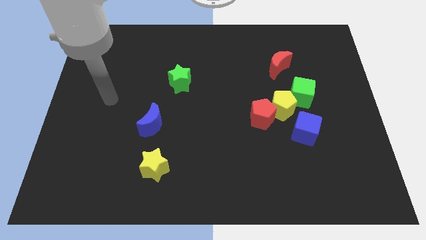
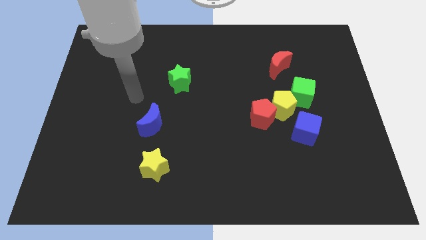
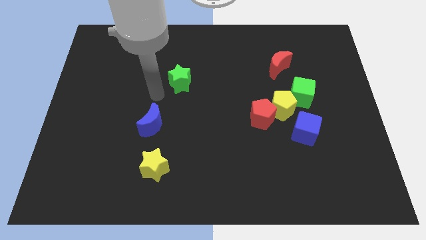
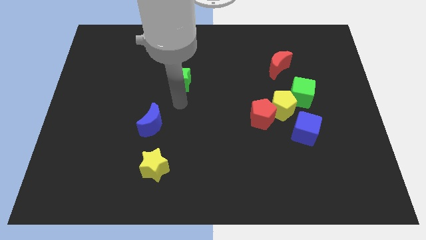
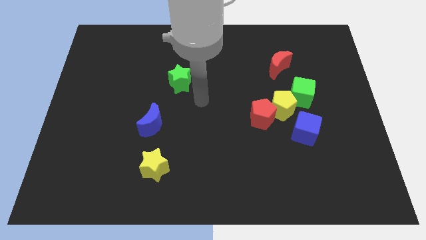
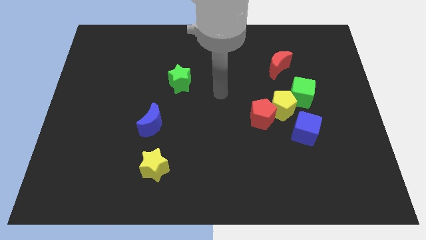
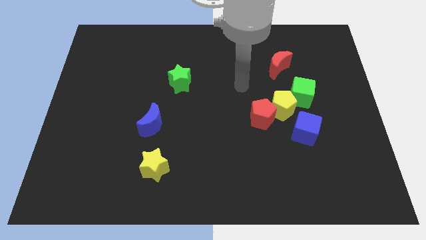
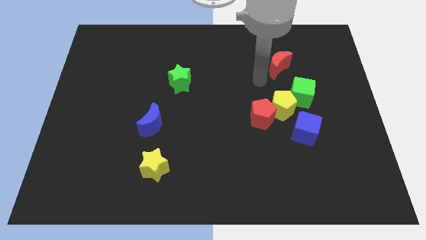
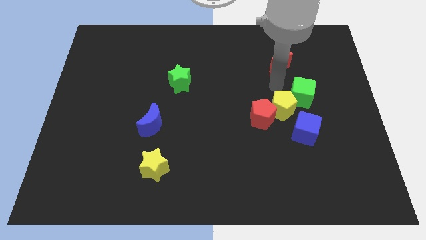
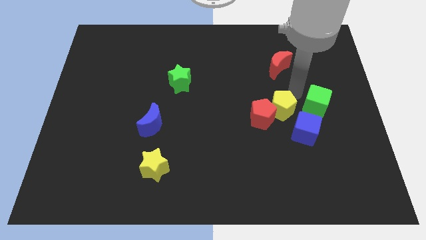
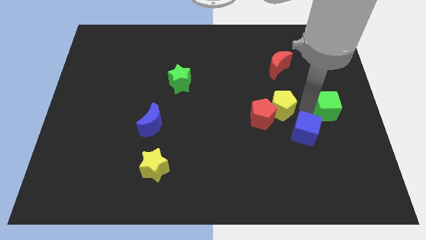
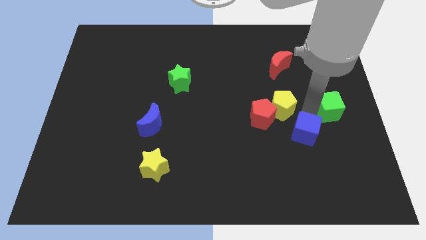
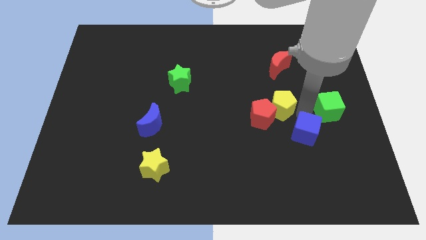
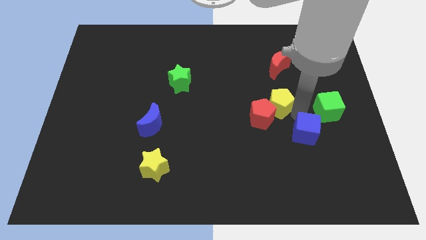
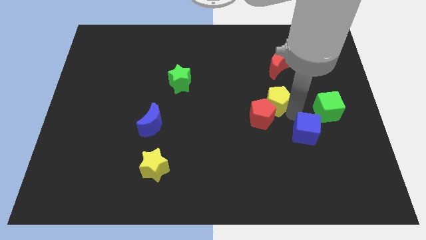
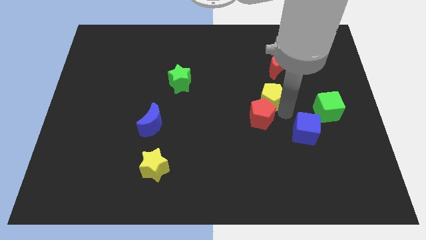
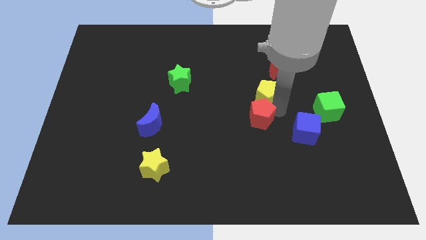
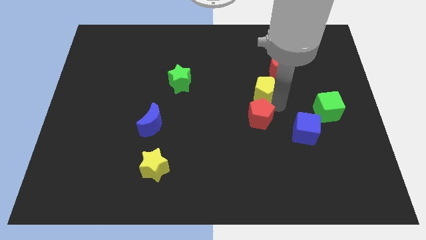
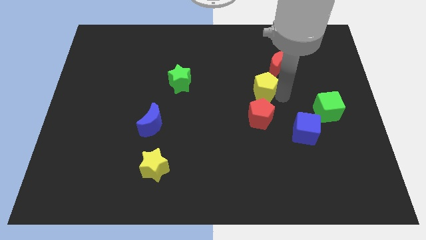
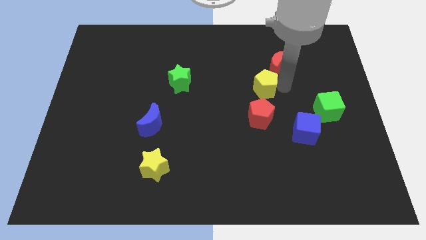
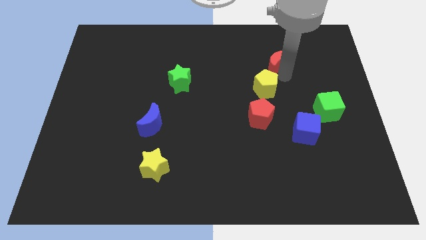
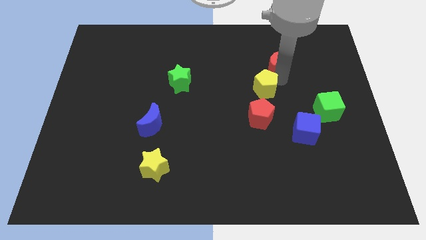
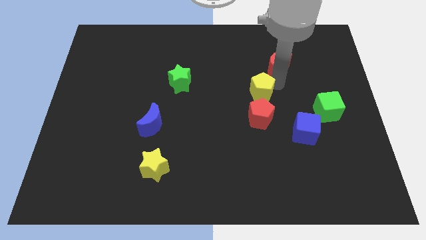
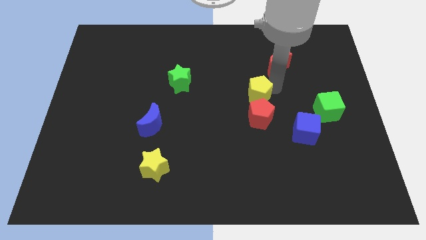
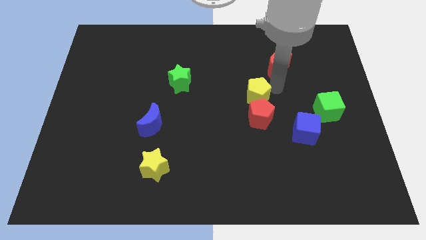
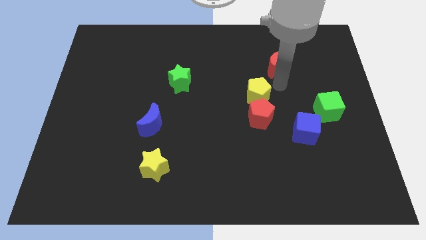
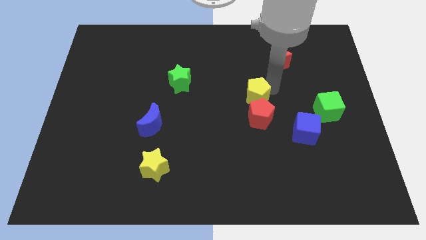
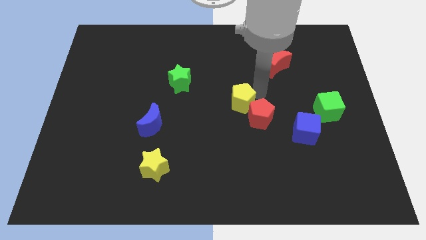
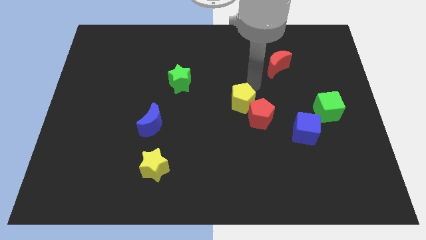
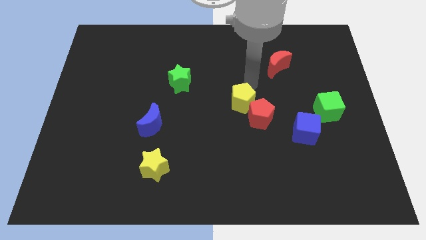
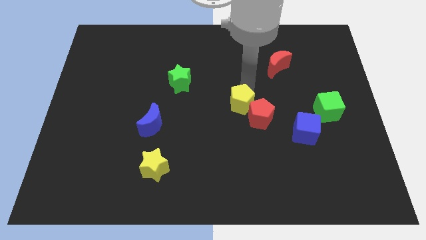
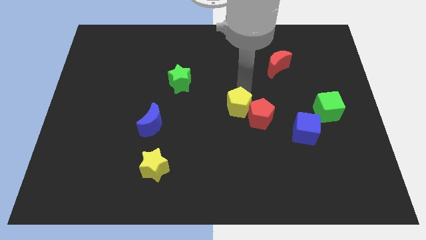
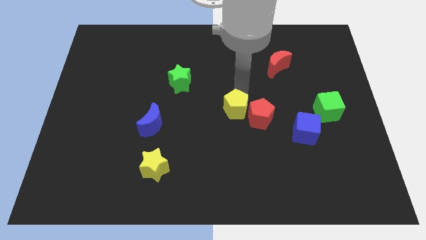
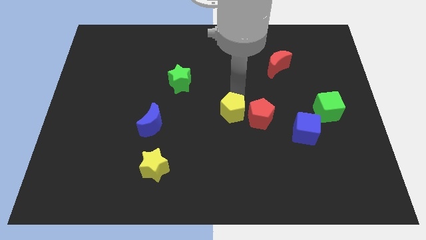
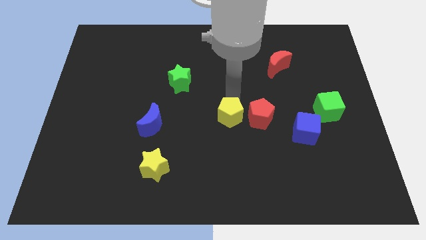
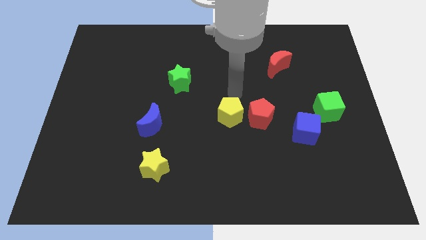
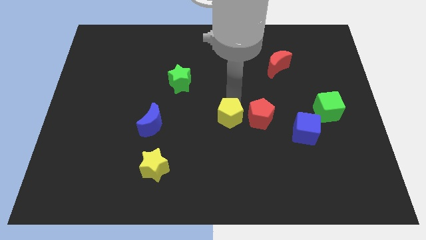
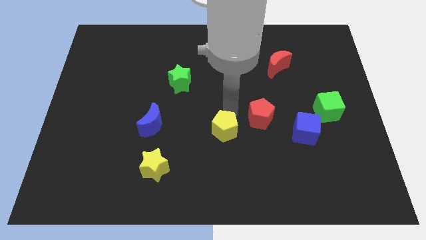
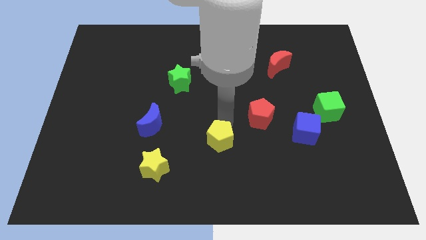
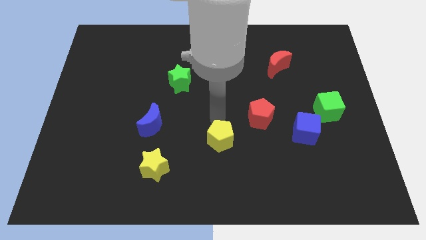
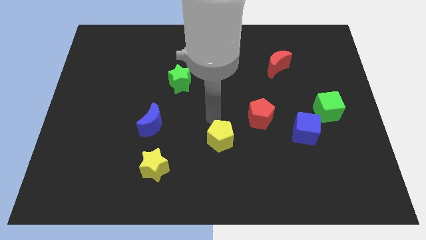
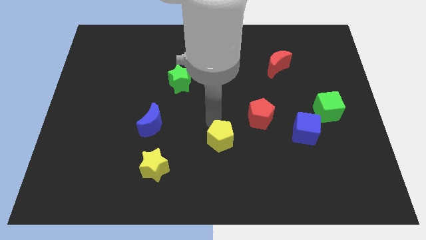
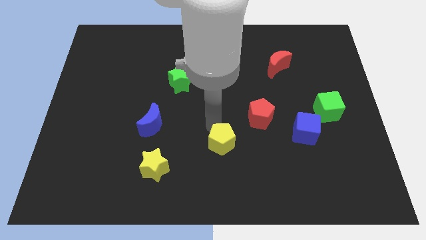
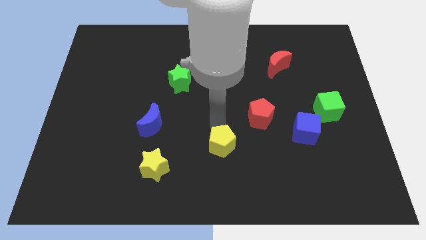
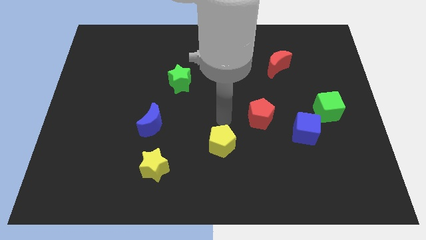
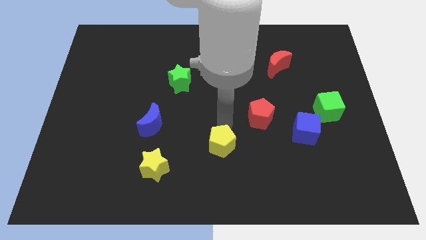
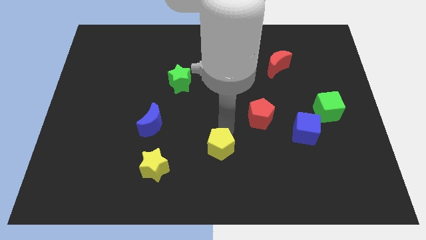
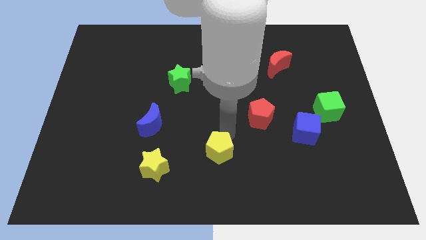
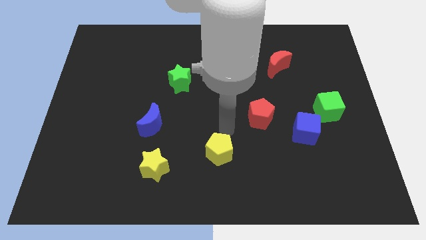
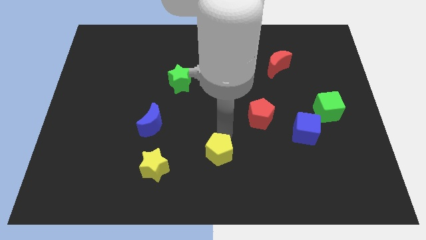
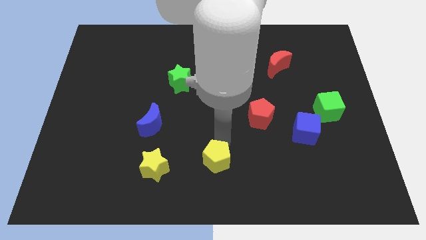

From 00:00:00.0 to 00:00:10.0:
slide the yellow pentagon to the bottom
